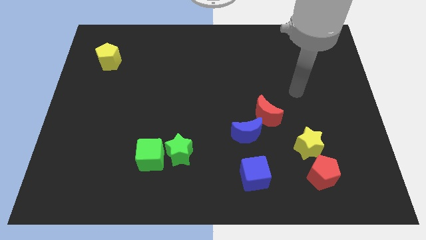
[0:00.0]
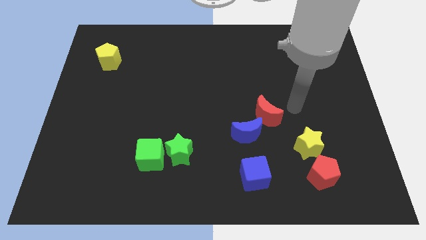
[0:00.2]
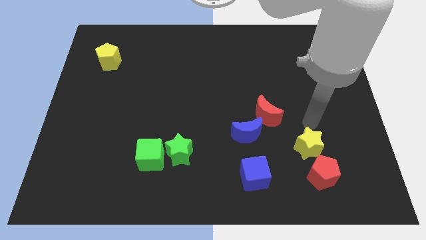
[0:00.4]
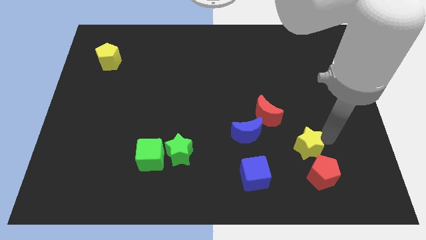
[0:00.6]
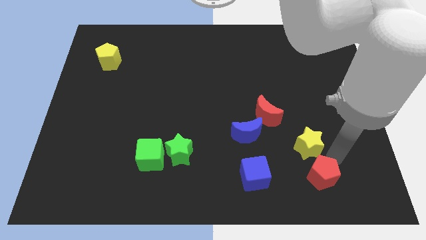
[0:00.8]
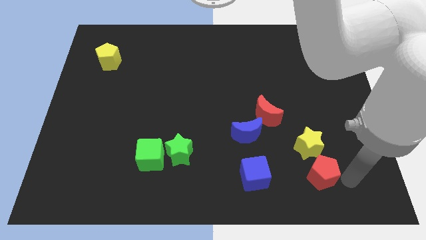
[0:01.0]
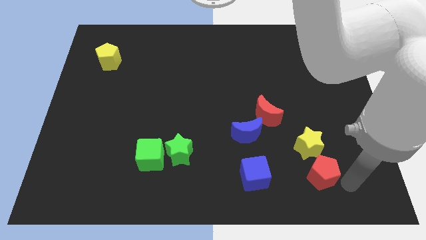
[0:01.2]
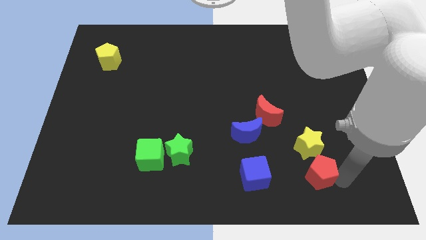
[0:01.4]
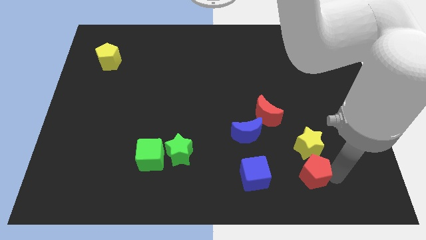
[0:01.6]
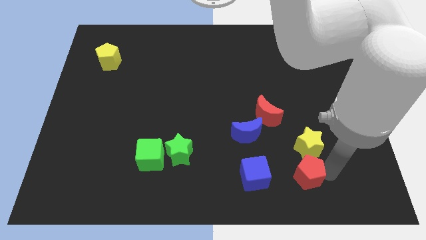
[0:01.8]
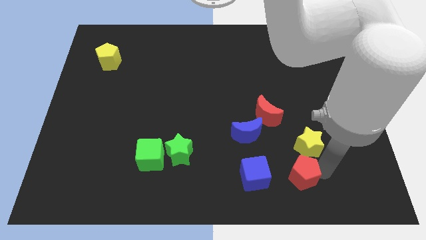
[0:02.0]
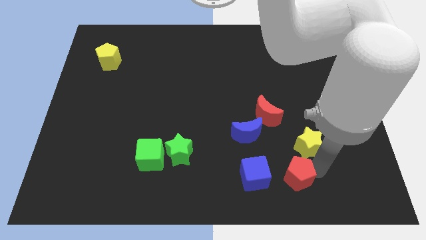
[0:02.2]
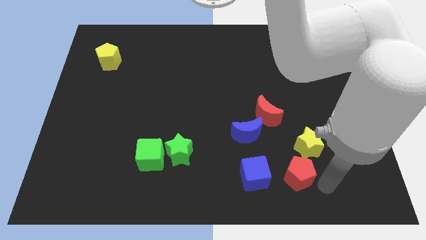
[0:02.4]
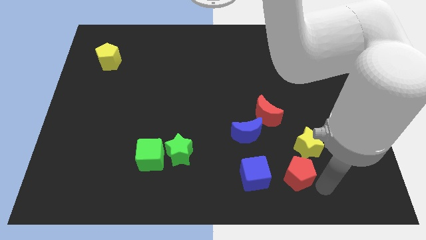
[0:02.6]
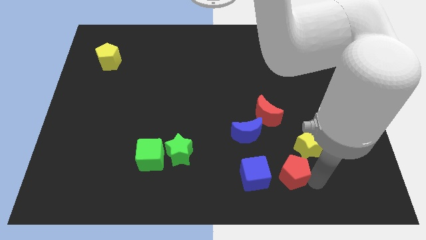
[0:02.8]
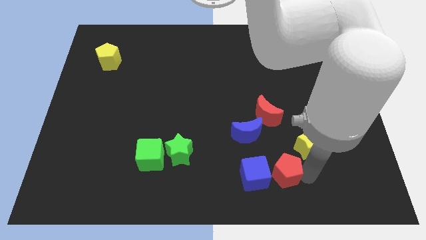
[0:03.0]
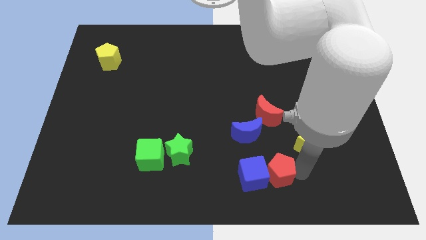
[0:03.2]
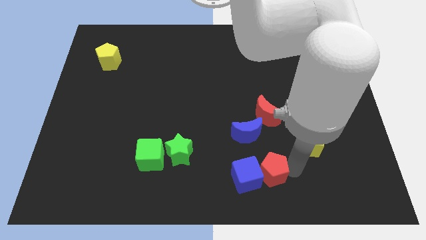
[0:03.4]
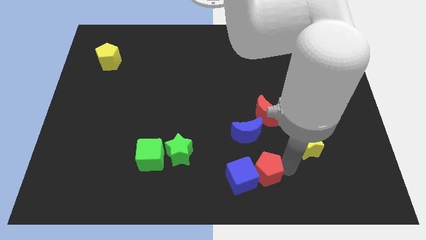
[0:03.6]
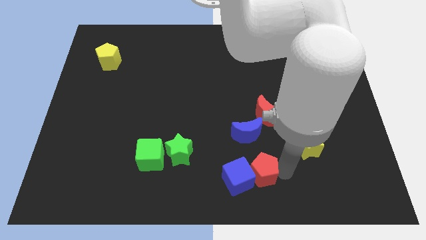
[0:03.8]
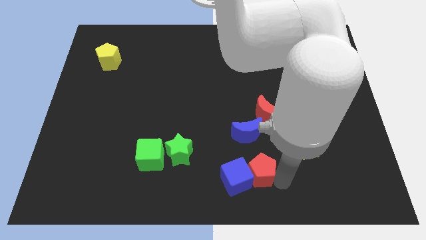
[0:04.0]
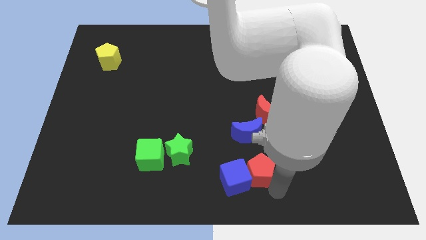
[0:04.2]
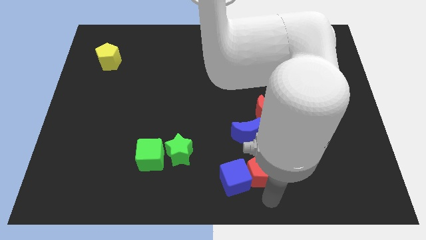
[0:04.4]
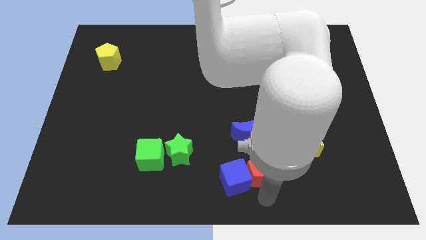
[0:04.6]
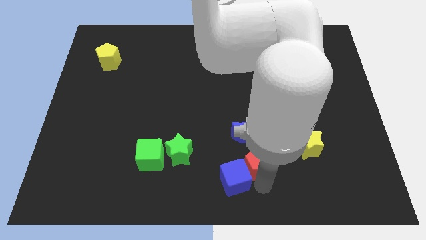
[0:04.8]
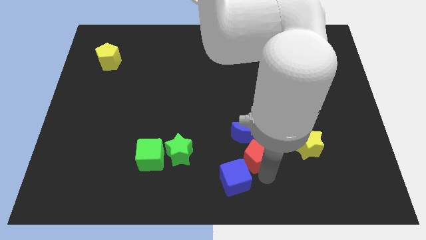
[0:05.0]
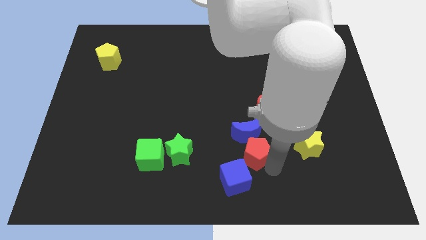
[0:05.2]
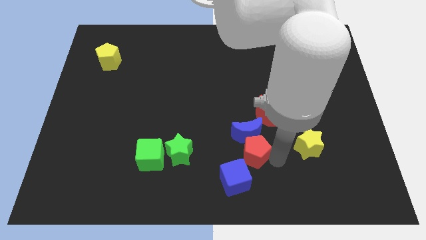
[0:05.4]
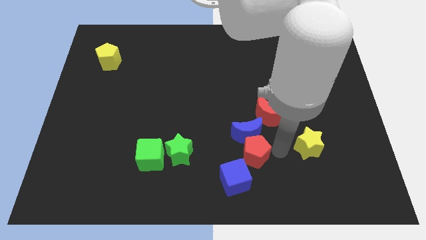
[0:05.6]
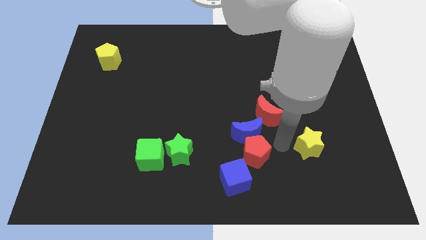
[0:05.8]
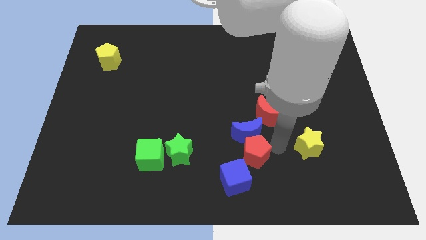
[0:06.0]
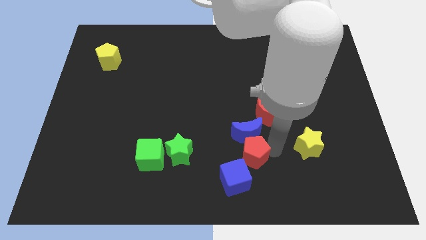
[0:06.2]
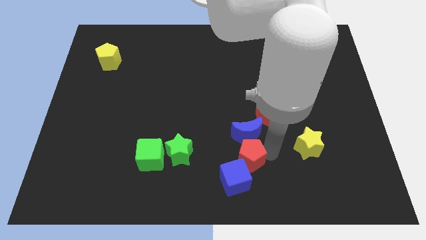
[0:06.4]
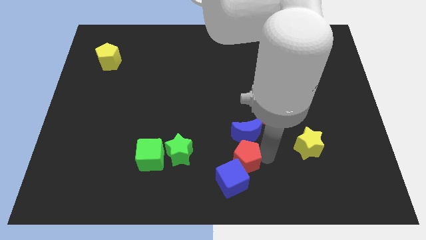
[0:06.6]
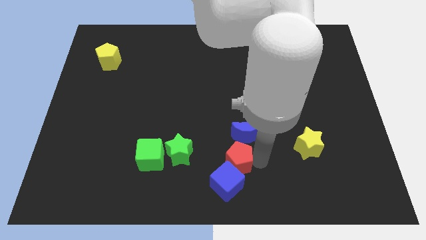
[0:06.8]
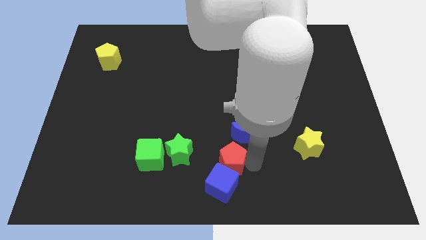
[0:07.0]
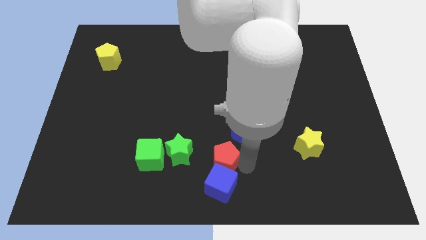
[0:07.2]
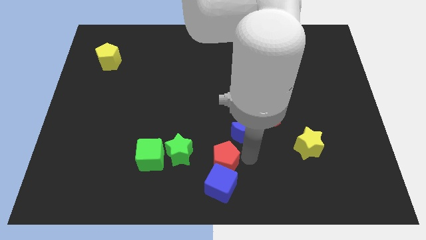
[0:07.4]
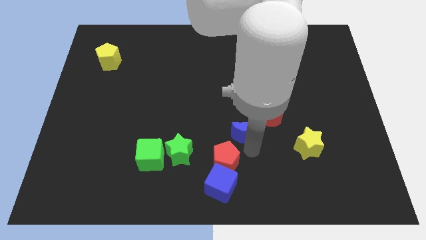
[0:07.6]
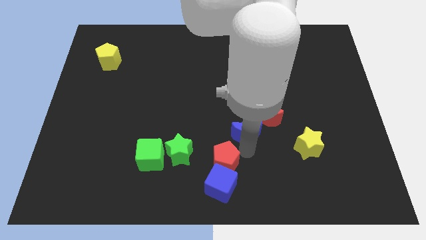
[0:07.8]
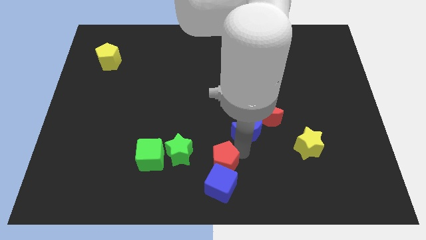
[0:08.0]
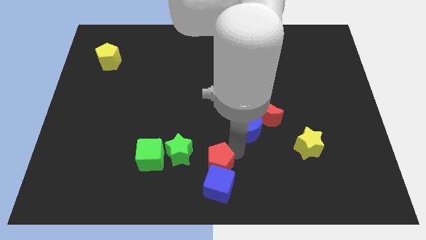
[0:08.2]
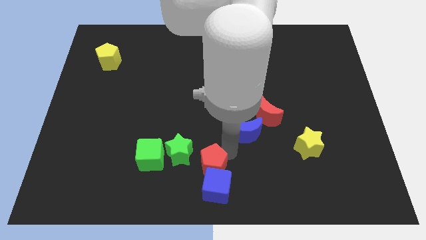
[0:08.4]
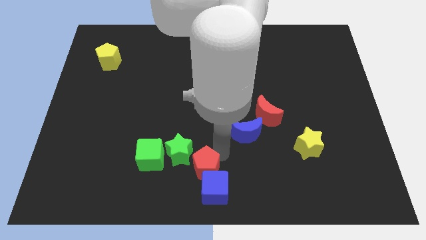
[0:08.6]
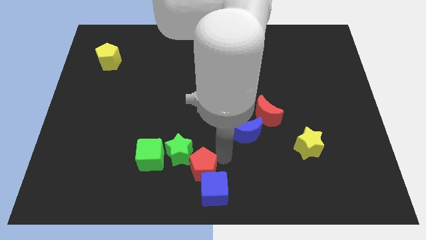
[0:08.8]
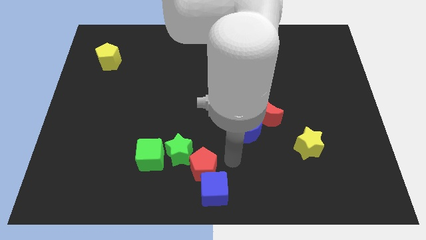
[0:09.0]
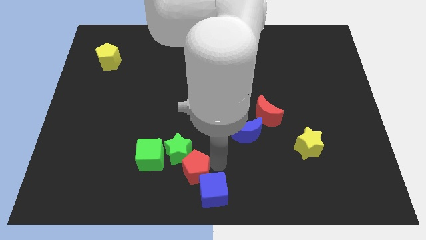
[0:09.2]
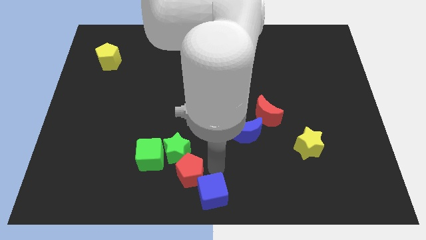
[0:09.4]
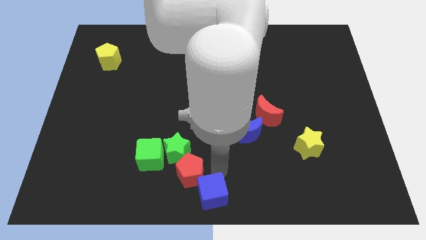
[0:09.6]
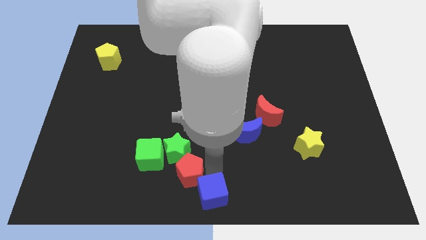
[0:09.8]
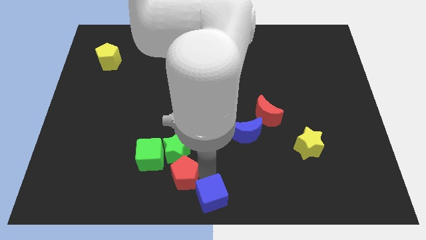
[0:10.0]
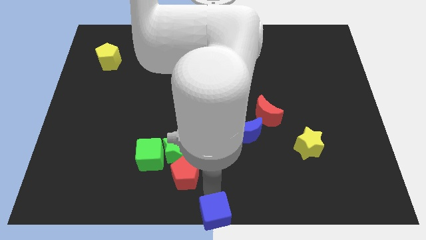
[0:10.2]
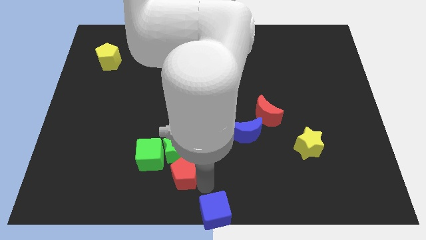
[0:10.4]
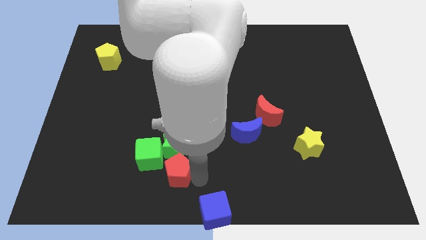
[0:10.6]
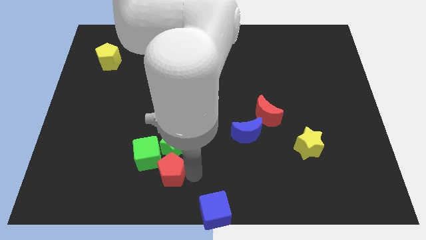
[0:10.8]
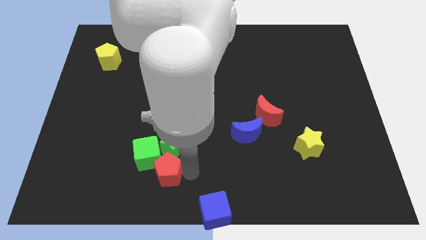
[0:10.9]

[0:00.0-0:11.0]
slide the red pentagon next to the green cube

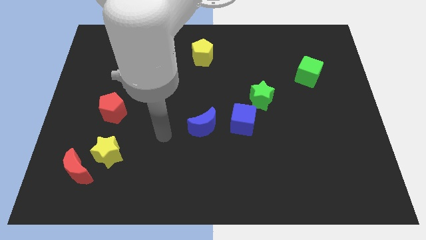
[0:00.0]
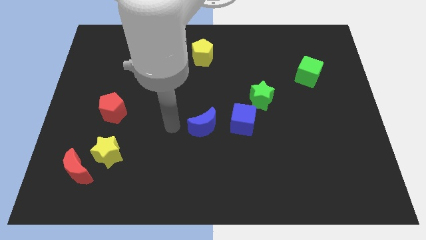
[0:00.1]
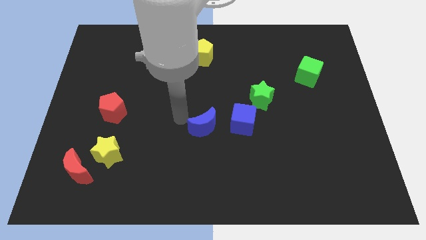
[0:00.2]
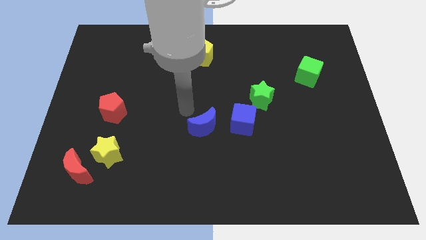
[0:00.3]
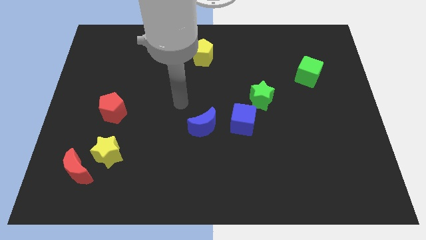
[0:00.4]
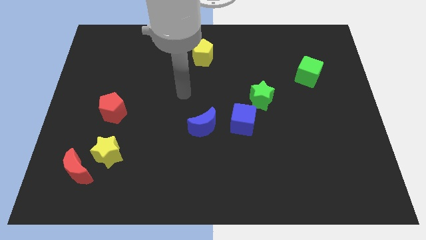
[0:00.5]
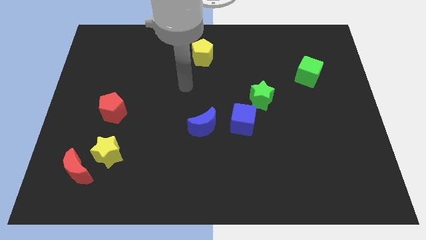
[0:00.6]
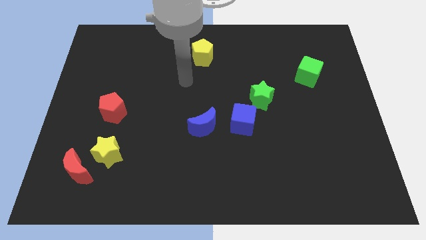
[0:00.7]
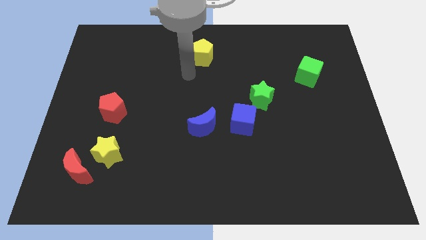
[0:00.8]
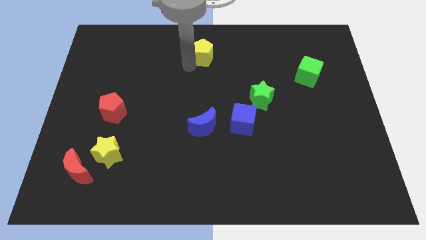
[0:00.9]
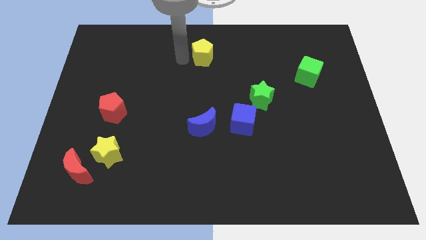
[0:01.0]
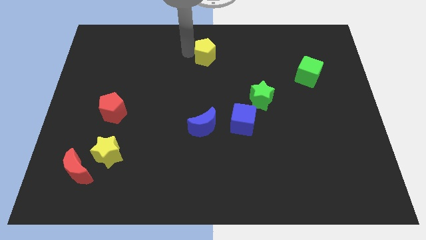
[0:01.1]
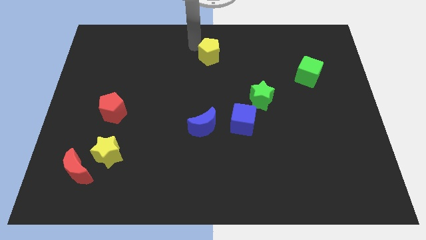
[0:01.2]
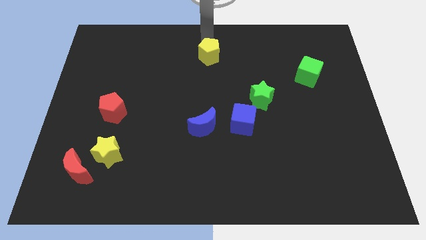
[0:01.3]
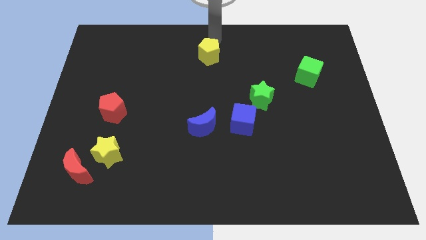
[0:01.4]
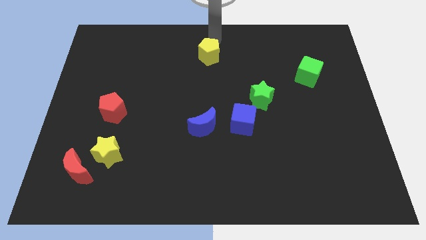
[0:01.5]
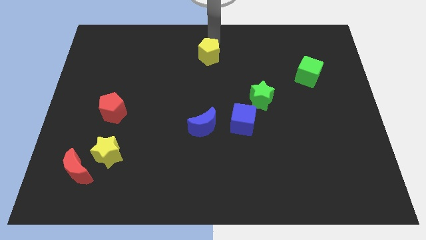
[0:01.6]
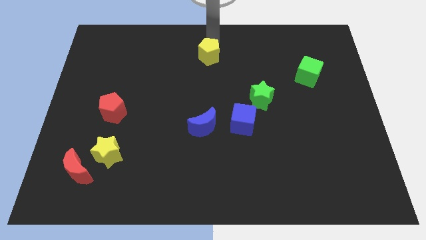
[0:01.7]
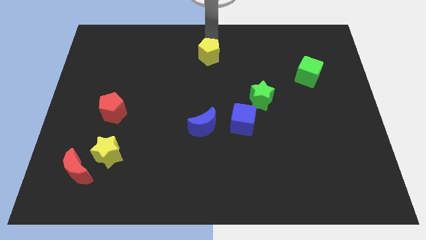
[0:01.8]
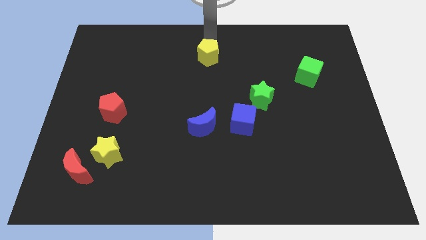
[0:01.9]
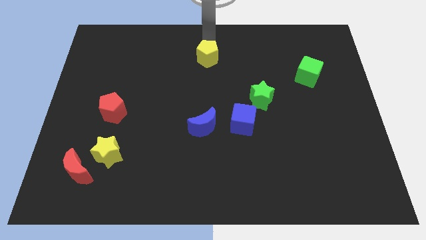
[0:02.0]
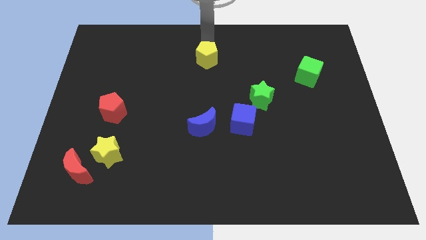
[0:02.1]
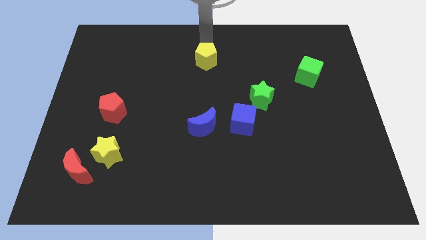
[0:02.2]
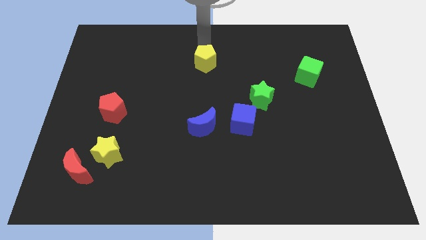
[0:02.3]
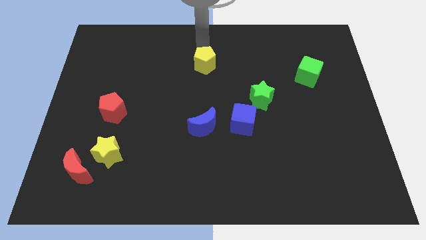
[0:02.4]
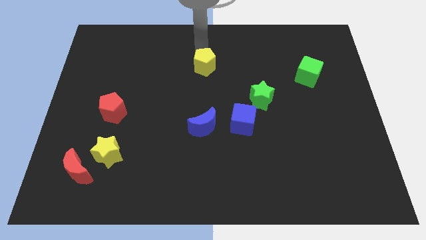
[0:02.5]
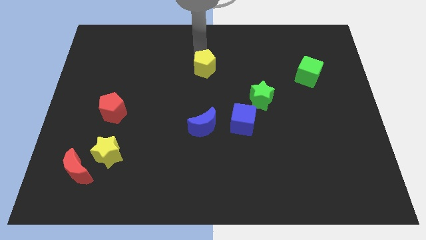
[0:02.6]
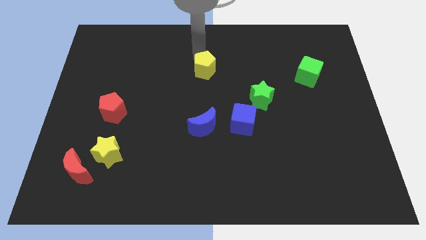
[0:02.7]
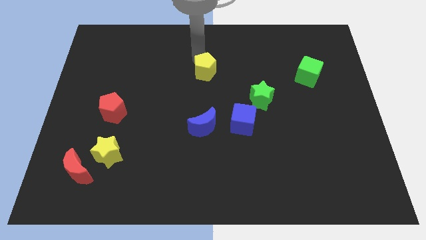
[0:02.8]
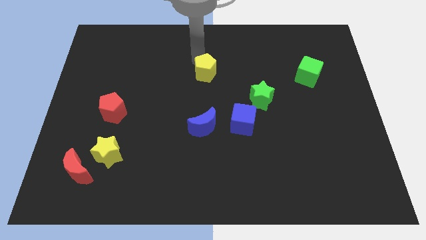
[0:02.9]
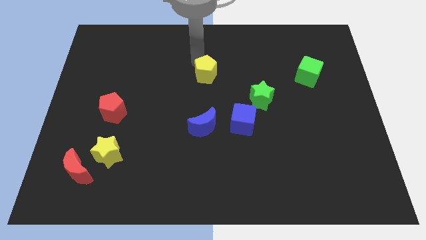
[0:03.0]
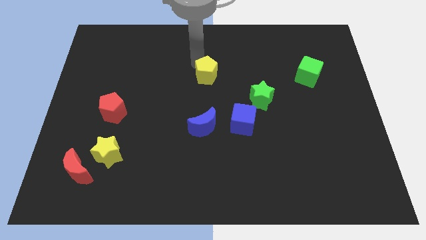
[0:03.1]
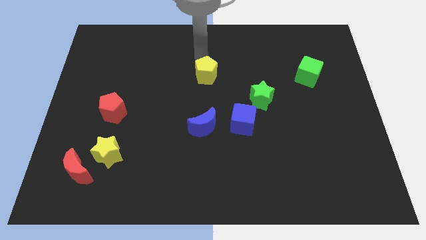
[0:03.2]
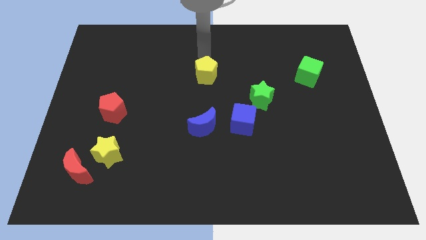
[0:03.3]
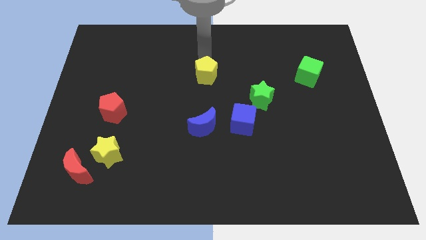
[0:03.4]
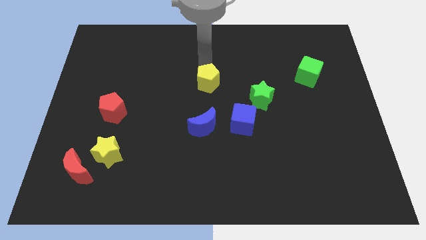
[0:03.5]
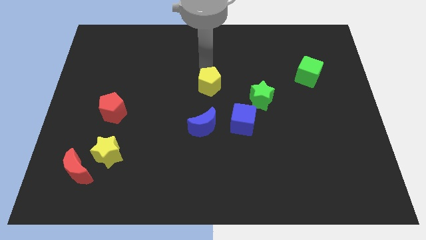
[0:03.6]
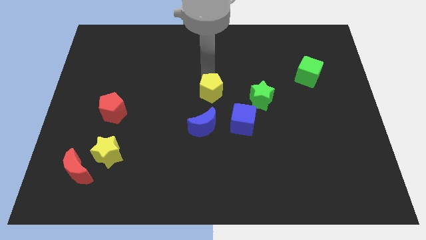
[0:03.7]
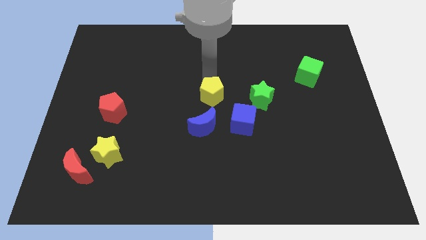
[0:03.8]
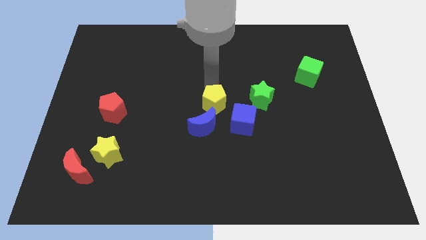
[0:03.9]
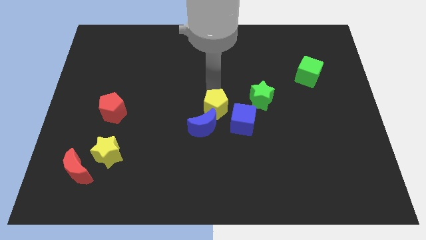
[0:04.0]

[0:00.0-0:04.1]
move the yellow pentagon towards the blue moon
